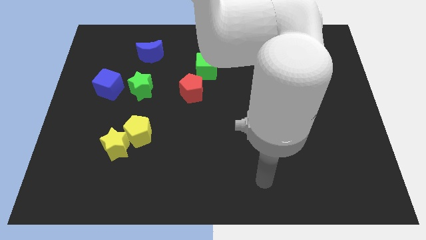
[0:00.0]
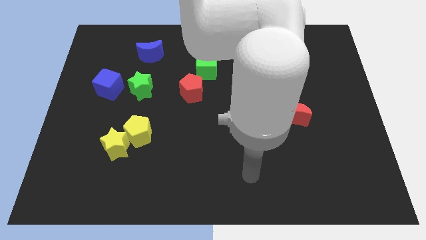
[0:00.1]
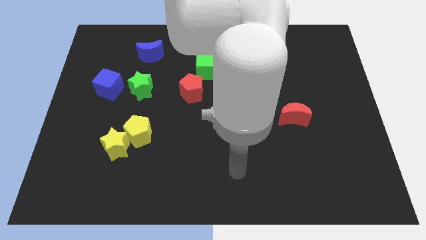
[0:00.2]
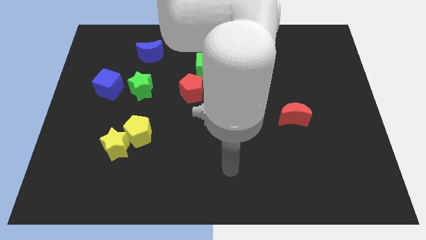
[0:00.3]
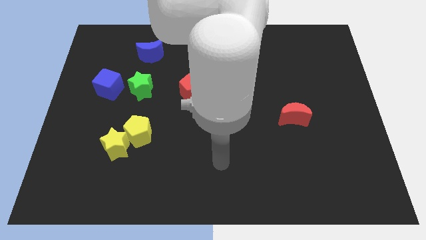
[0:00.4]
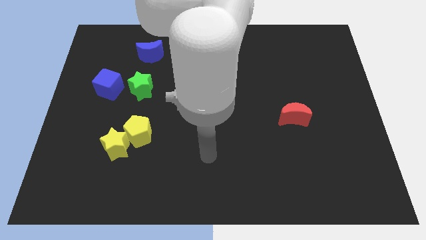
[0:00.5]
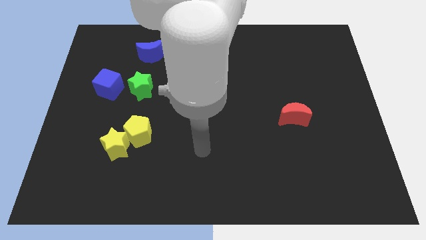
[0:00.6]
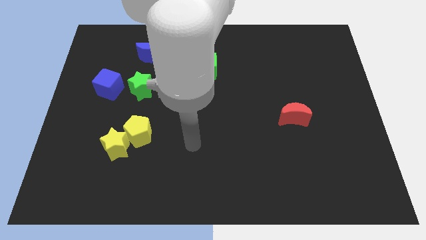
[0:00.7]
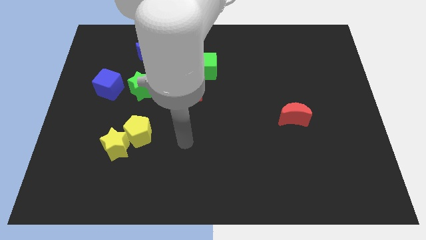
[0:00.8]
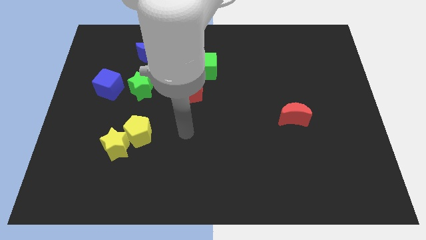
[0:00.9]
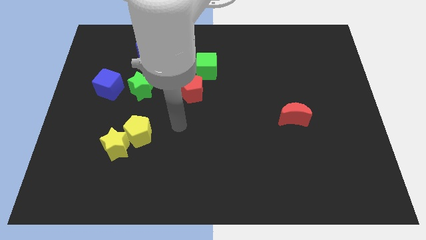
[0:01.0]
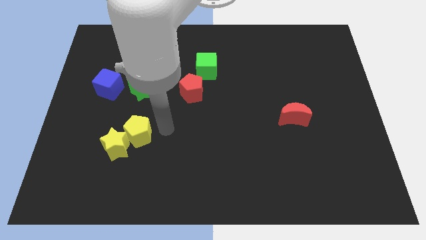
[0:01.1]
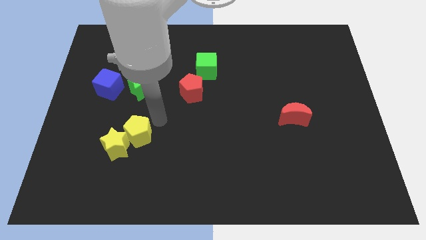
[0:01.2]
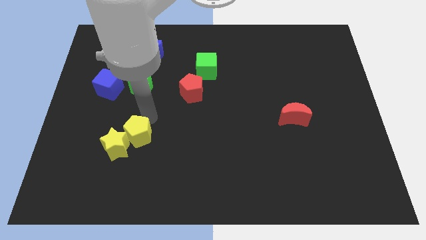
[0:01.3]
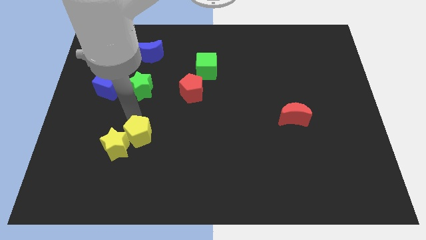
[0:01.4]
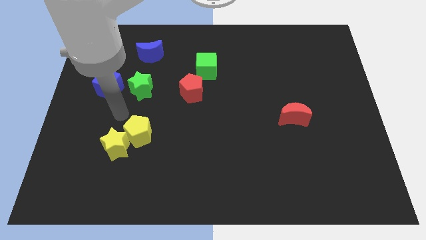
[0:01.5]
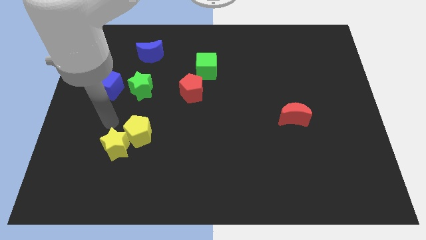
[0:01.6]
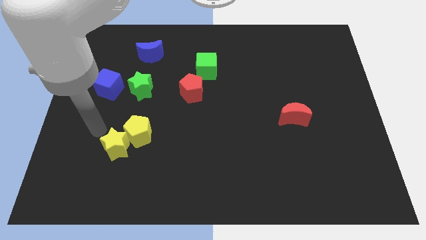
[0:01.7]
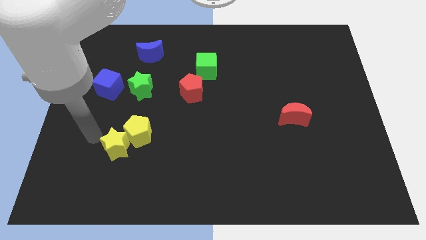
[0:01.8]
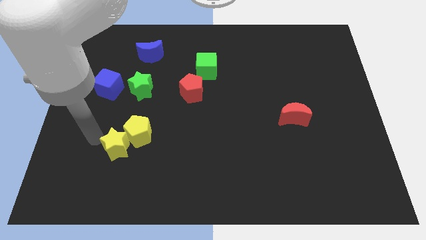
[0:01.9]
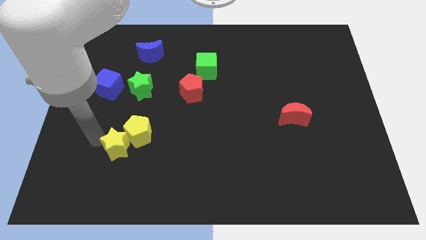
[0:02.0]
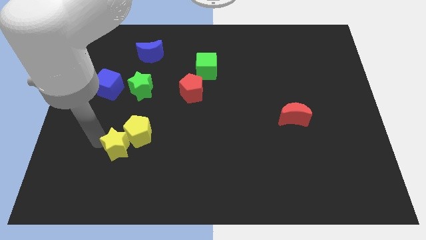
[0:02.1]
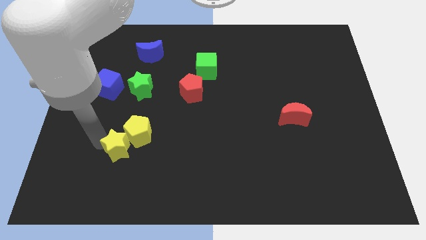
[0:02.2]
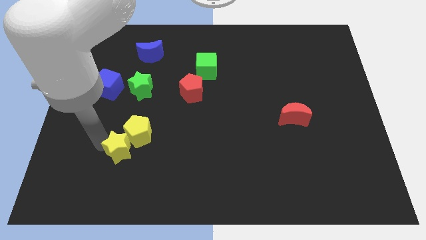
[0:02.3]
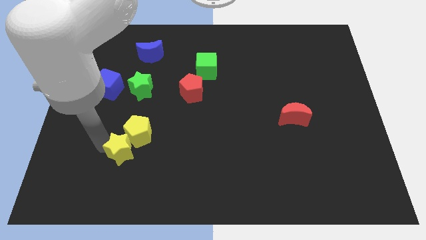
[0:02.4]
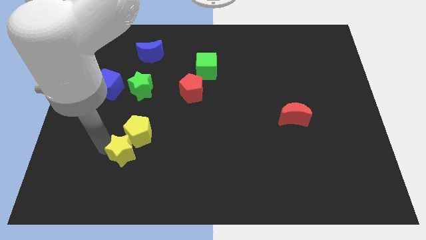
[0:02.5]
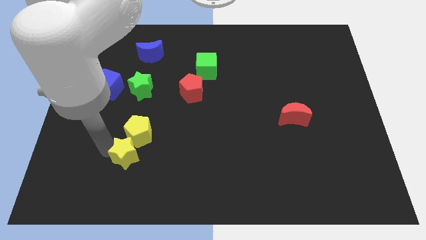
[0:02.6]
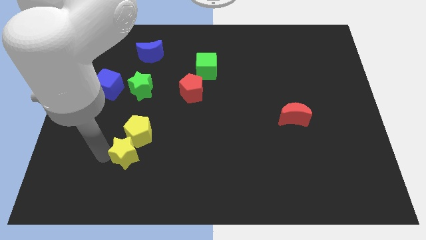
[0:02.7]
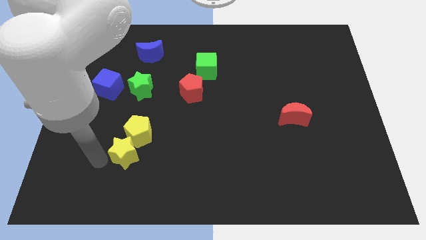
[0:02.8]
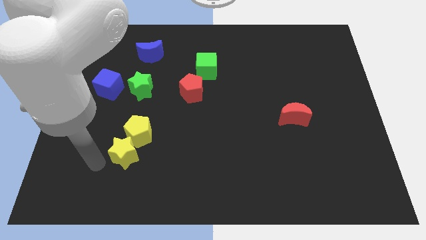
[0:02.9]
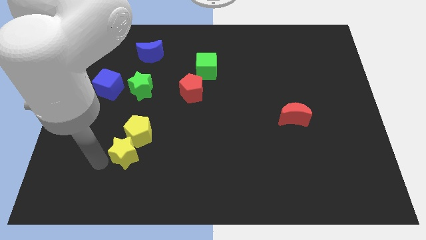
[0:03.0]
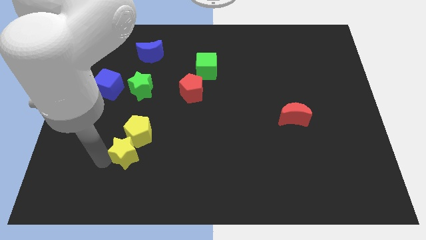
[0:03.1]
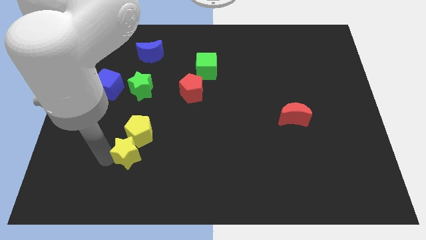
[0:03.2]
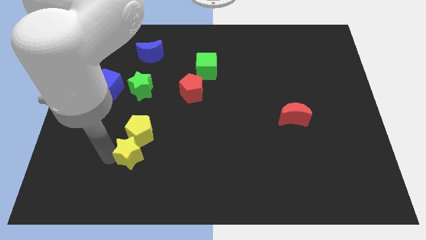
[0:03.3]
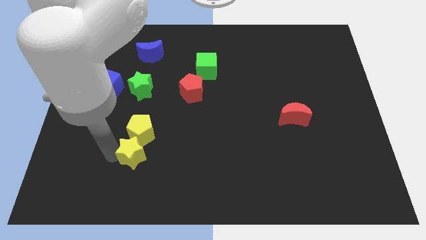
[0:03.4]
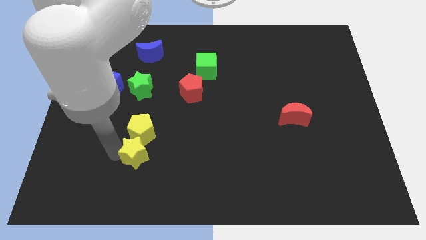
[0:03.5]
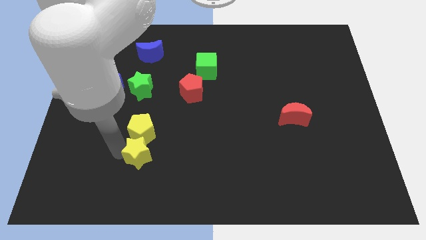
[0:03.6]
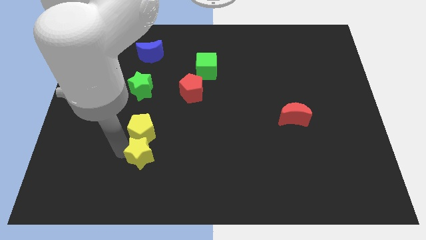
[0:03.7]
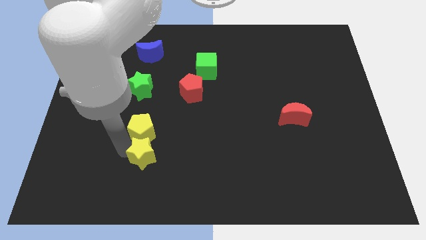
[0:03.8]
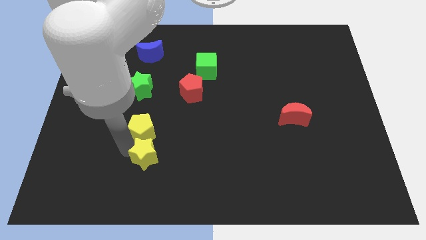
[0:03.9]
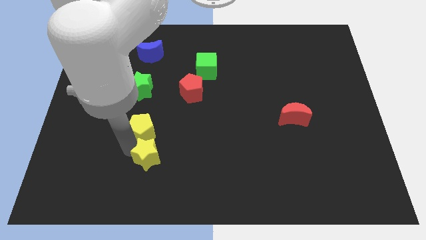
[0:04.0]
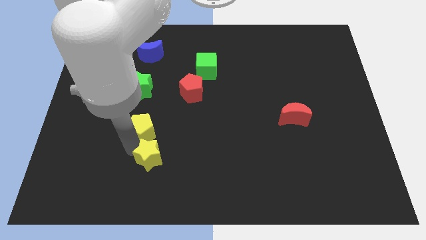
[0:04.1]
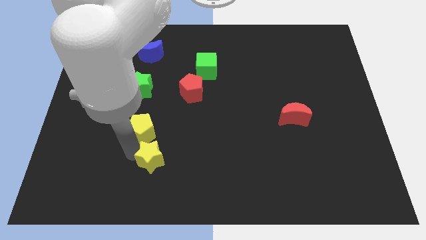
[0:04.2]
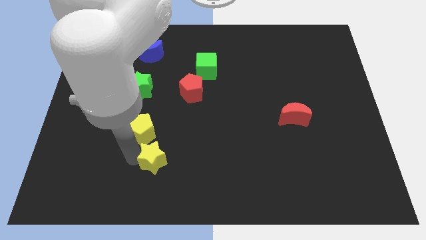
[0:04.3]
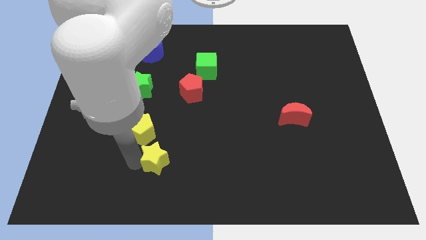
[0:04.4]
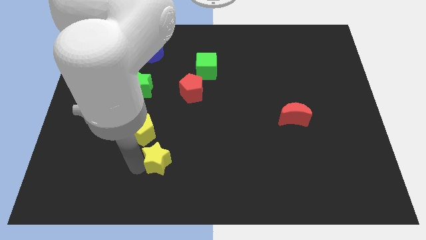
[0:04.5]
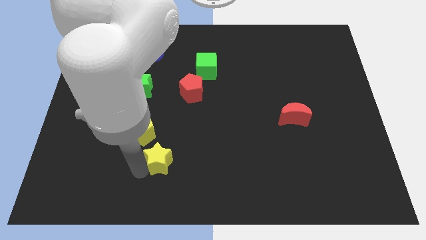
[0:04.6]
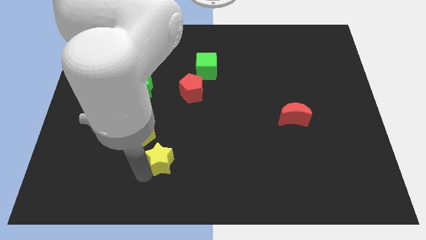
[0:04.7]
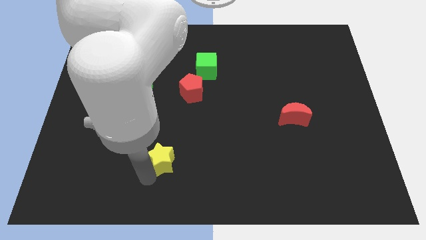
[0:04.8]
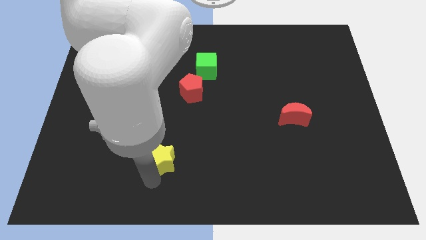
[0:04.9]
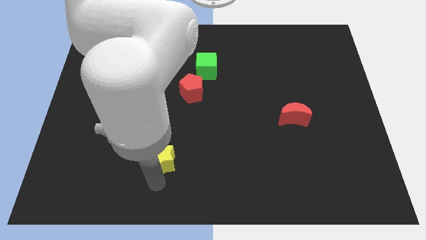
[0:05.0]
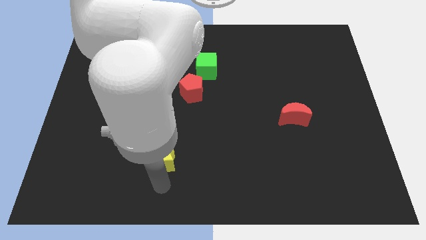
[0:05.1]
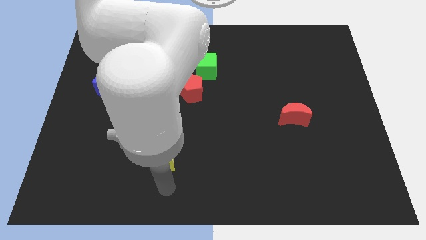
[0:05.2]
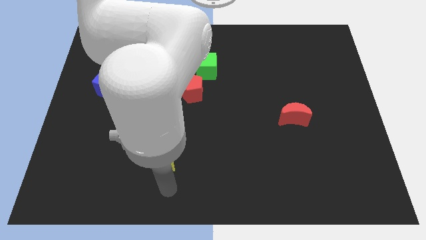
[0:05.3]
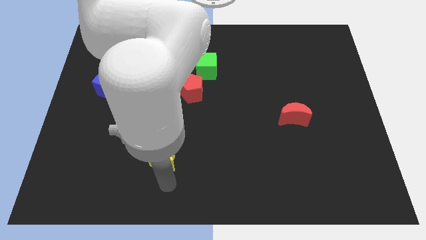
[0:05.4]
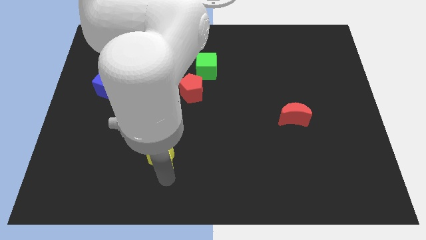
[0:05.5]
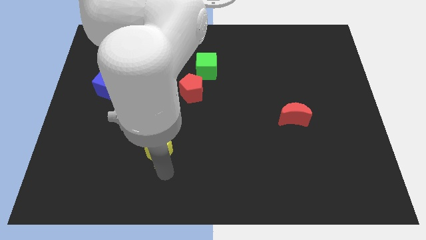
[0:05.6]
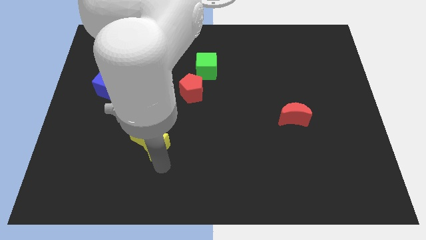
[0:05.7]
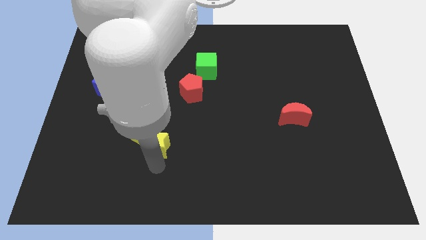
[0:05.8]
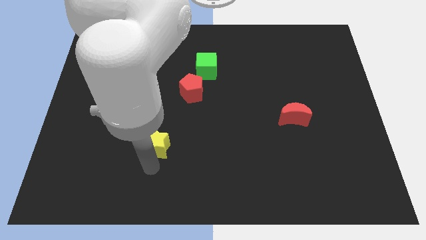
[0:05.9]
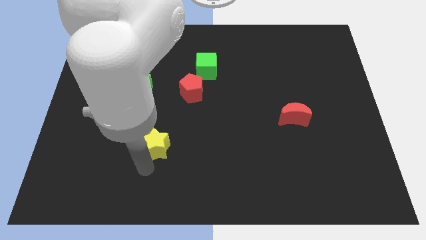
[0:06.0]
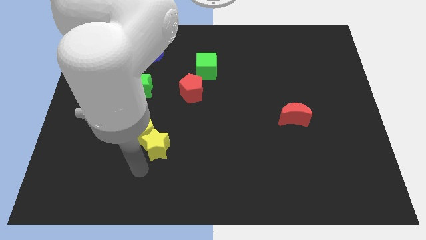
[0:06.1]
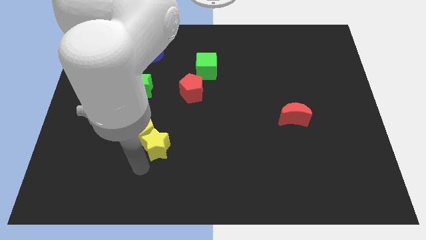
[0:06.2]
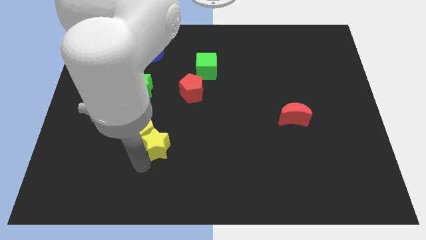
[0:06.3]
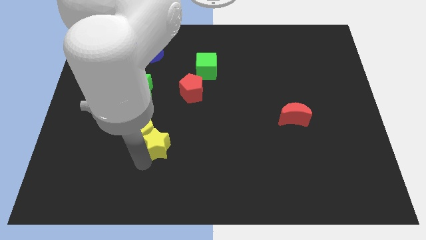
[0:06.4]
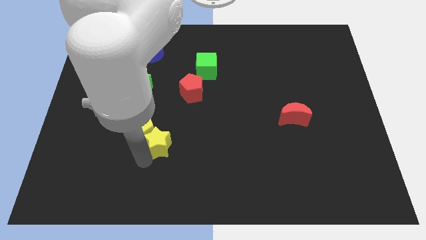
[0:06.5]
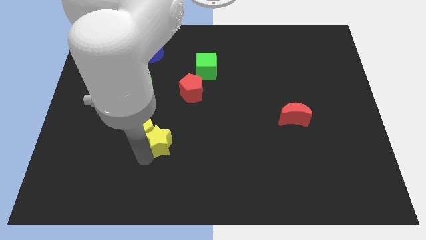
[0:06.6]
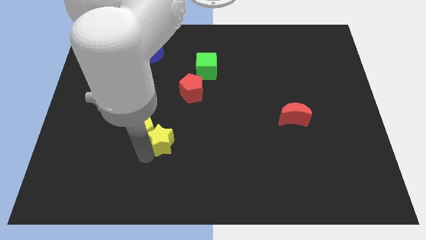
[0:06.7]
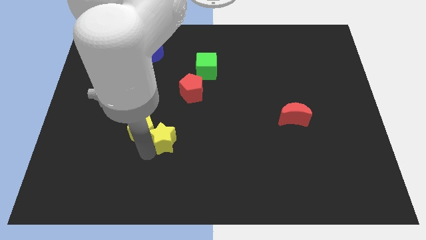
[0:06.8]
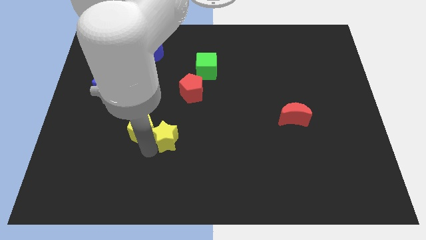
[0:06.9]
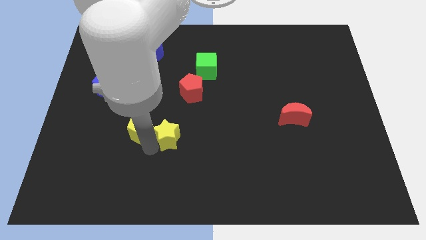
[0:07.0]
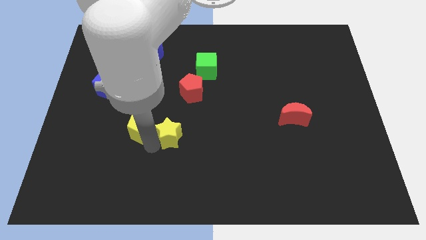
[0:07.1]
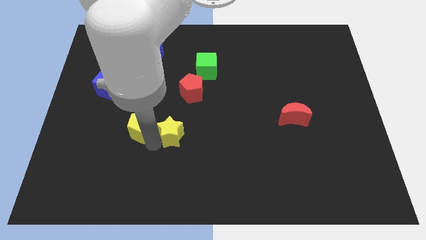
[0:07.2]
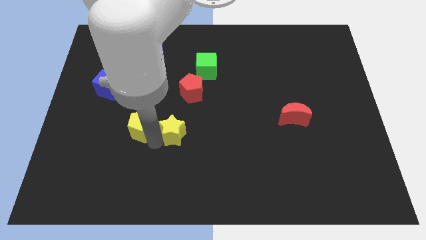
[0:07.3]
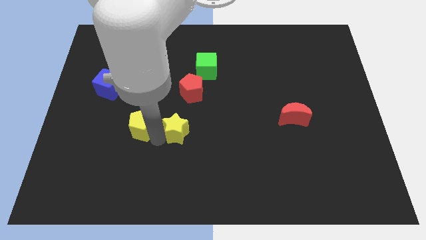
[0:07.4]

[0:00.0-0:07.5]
push the yellow star to the center of the board
